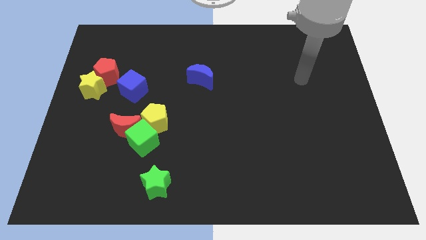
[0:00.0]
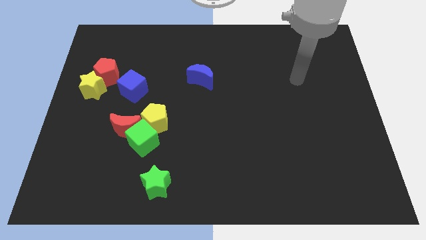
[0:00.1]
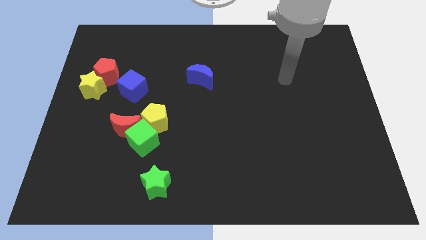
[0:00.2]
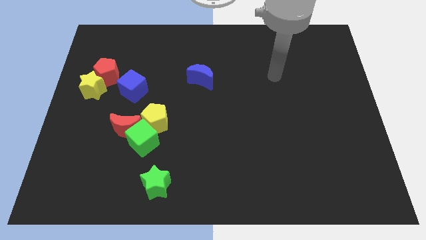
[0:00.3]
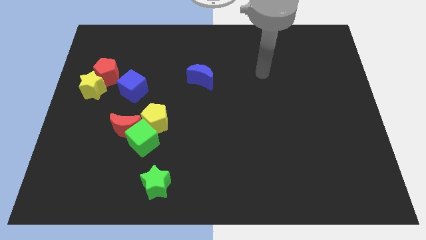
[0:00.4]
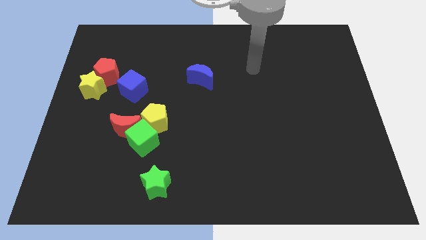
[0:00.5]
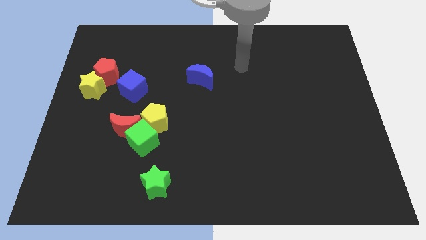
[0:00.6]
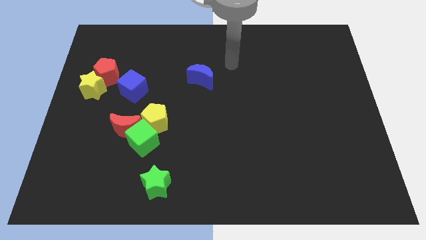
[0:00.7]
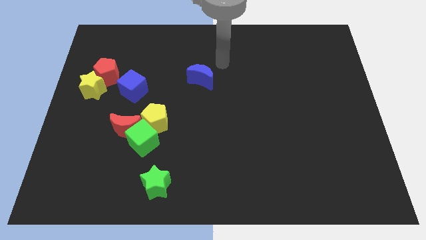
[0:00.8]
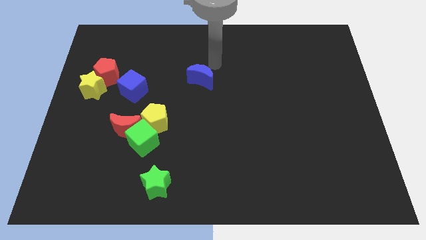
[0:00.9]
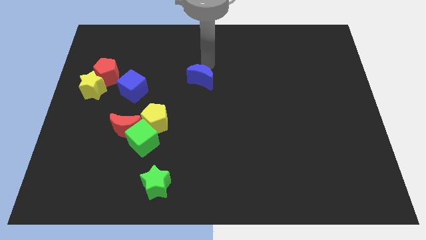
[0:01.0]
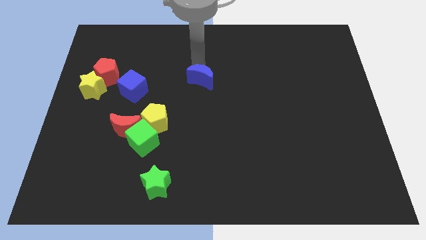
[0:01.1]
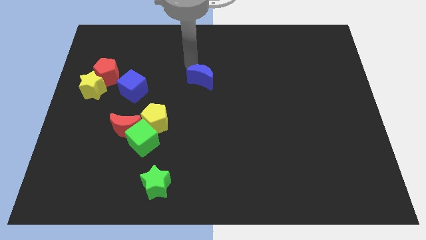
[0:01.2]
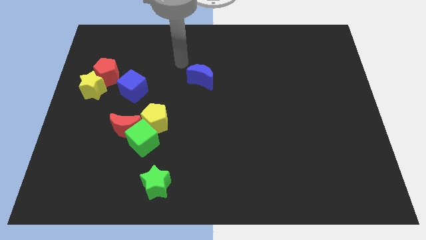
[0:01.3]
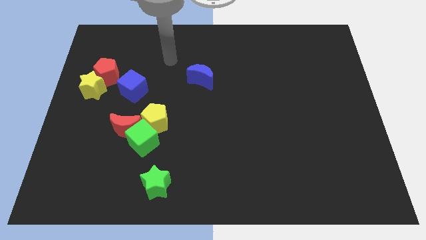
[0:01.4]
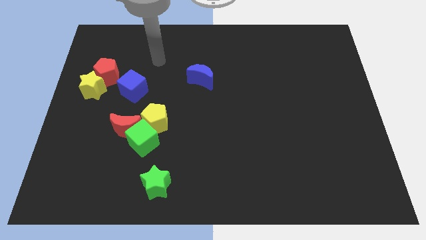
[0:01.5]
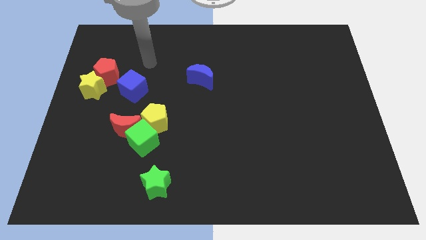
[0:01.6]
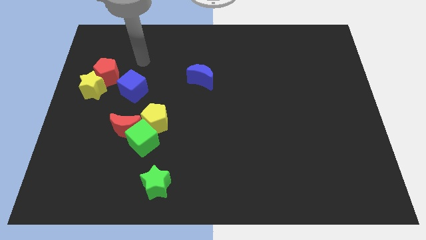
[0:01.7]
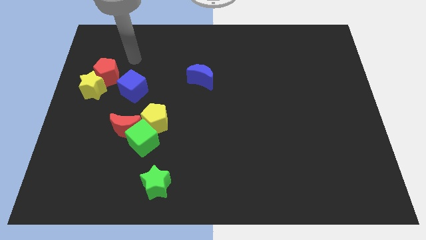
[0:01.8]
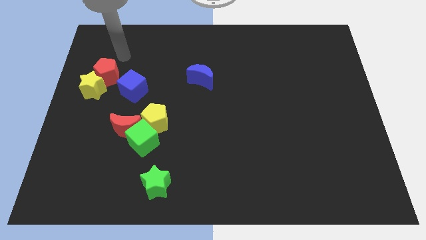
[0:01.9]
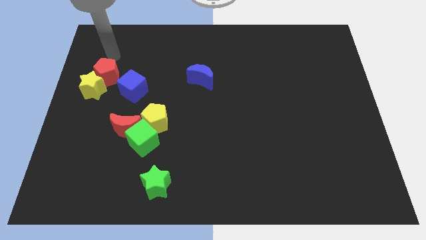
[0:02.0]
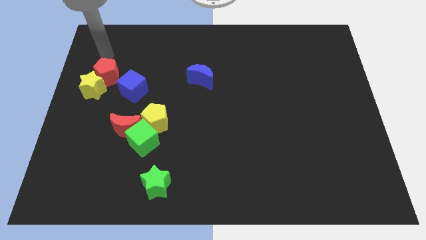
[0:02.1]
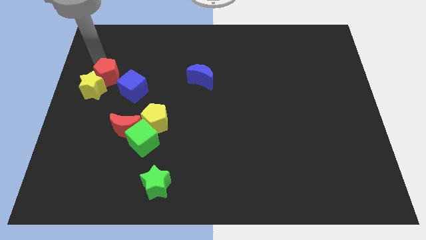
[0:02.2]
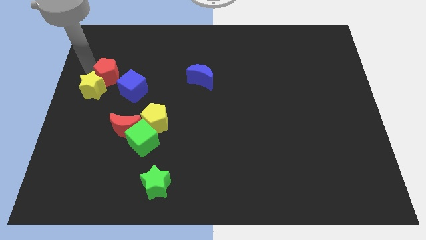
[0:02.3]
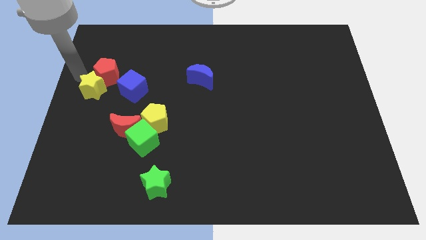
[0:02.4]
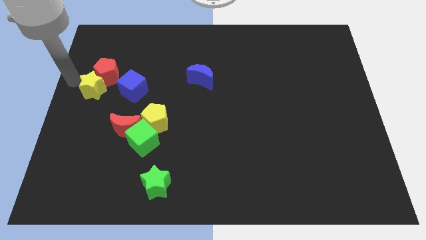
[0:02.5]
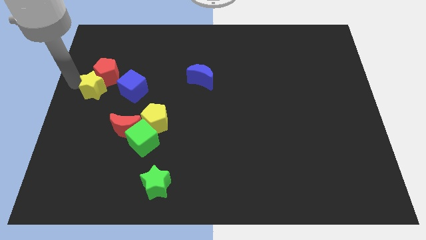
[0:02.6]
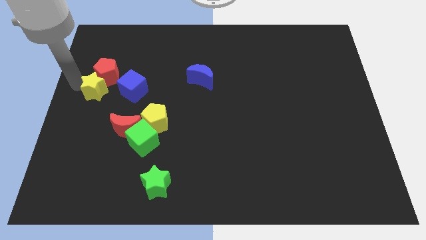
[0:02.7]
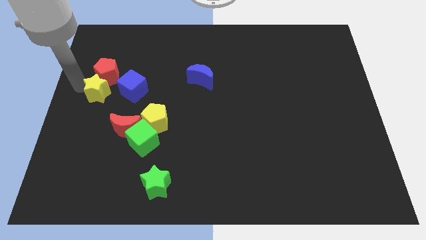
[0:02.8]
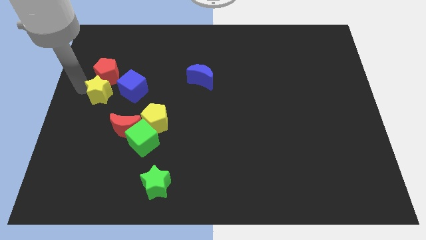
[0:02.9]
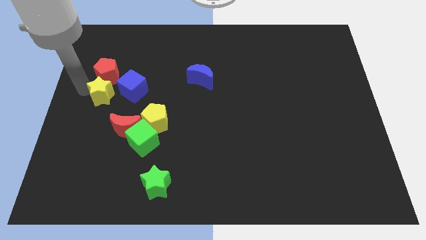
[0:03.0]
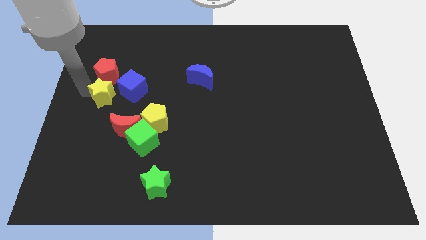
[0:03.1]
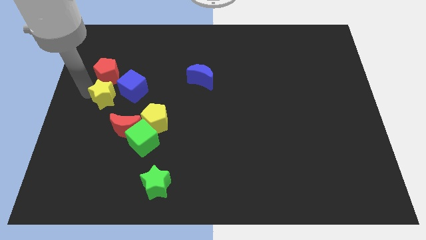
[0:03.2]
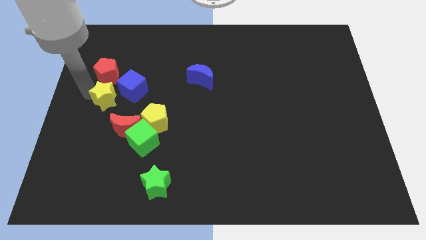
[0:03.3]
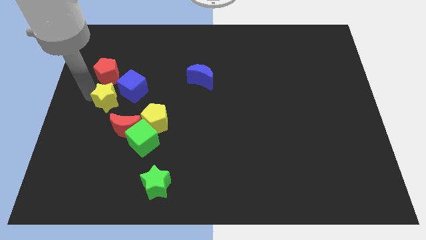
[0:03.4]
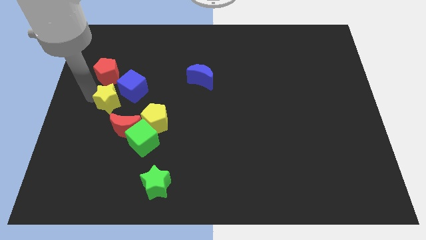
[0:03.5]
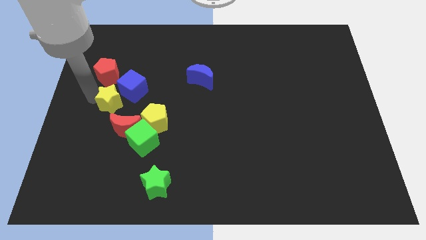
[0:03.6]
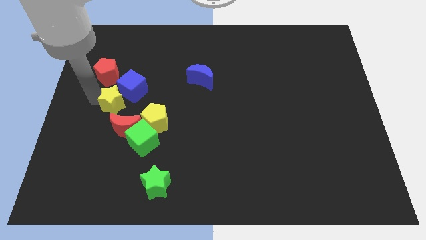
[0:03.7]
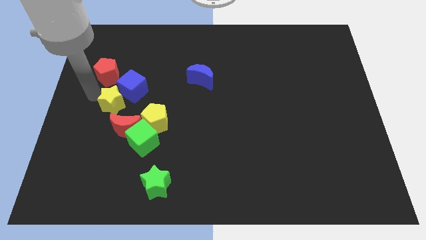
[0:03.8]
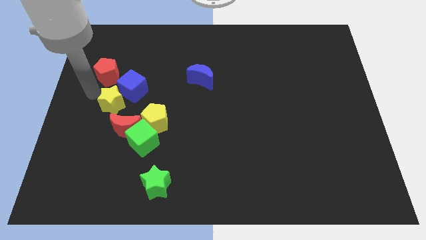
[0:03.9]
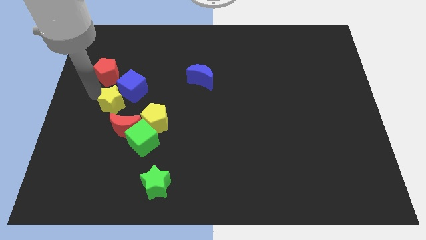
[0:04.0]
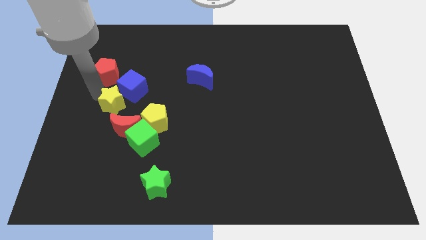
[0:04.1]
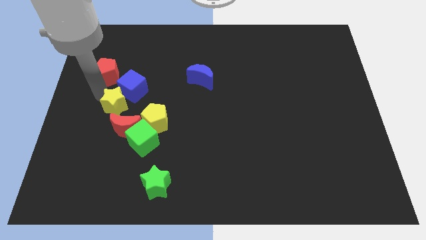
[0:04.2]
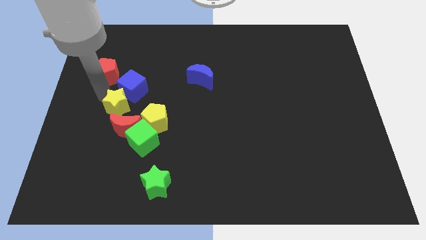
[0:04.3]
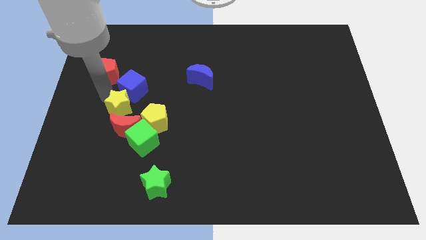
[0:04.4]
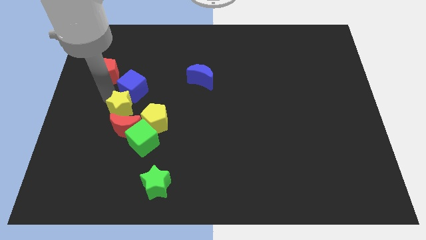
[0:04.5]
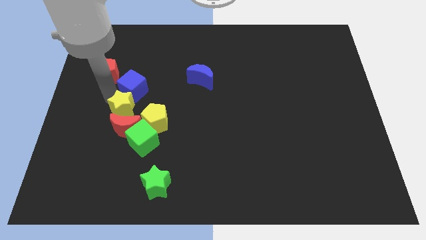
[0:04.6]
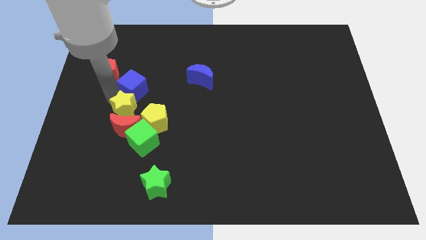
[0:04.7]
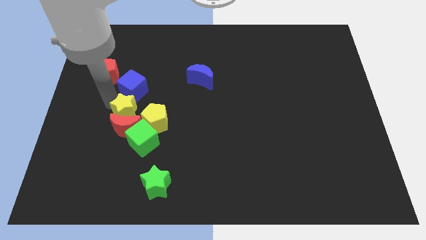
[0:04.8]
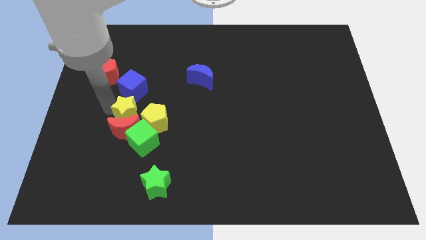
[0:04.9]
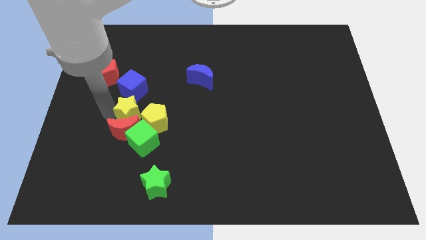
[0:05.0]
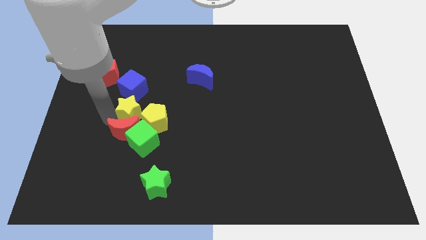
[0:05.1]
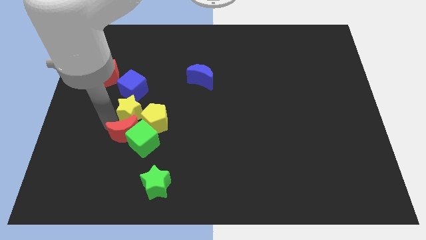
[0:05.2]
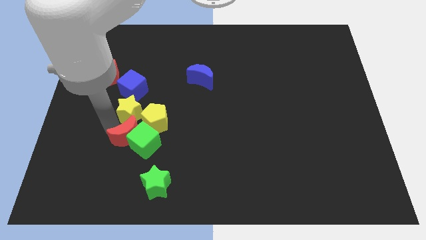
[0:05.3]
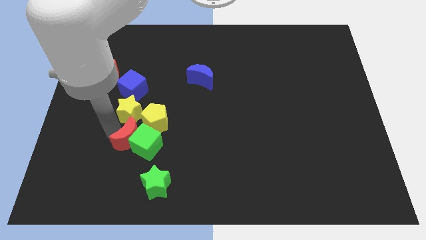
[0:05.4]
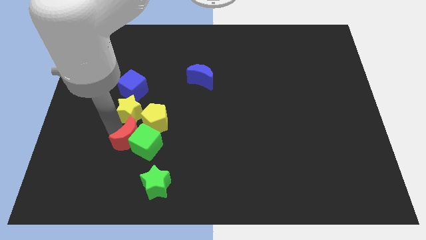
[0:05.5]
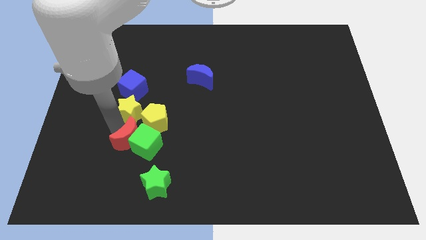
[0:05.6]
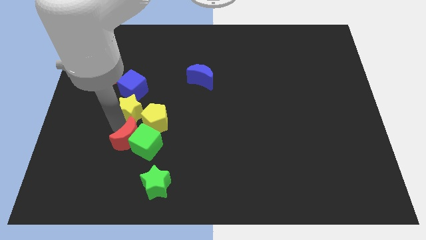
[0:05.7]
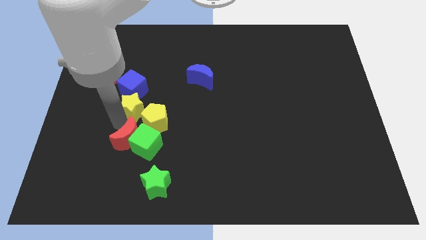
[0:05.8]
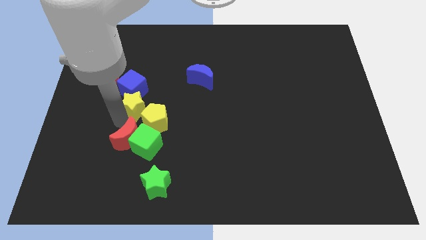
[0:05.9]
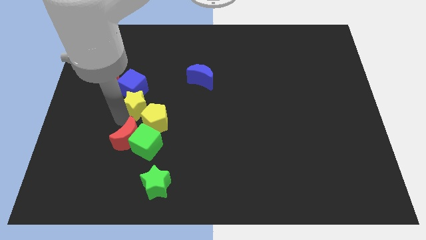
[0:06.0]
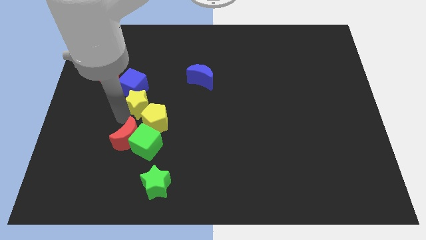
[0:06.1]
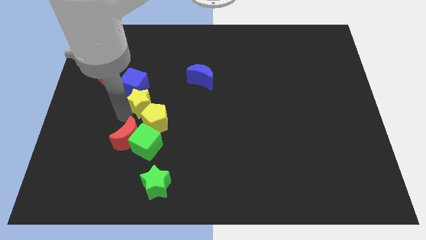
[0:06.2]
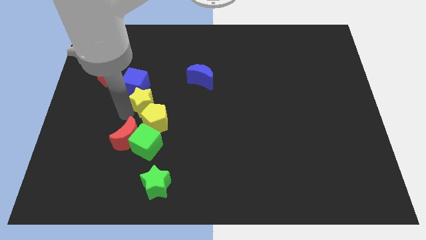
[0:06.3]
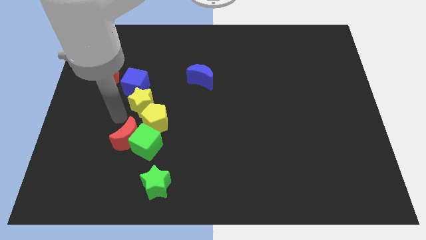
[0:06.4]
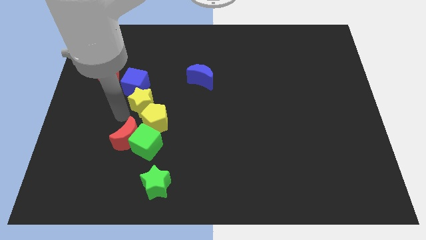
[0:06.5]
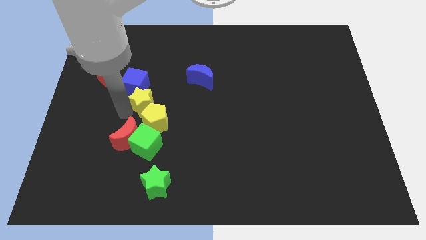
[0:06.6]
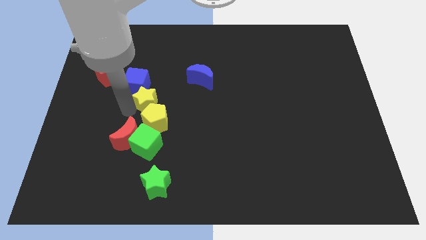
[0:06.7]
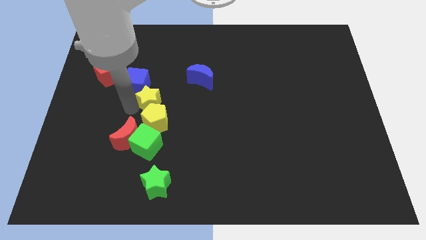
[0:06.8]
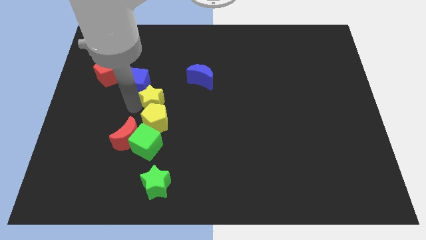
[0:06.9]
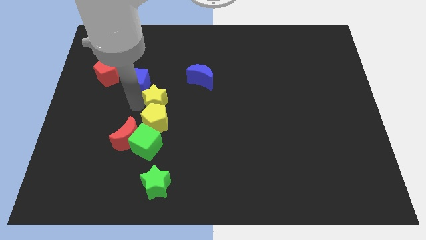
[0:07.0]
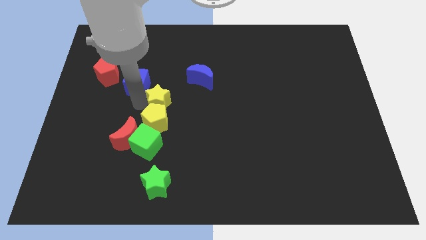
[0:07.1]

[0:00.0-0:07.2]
move the yellow star to the center

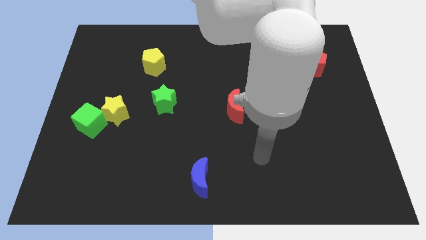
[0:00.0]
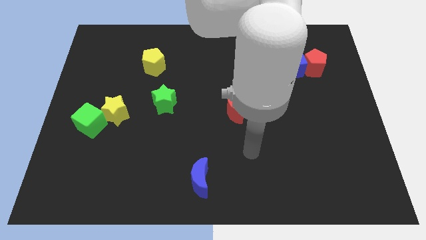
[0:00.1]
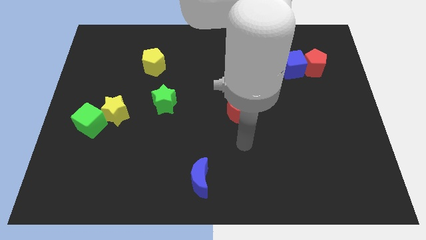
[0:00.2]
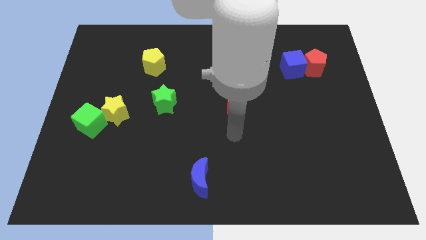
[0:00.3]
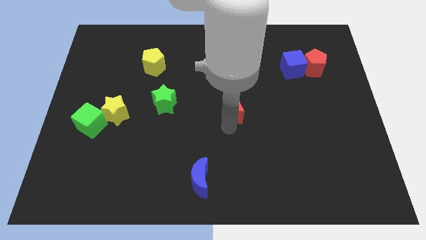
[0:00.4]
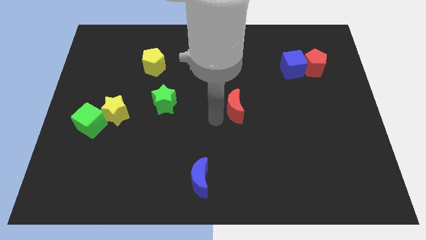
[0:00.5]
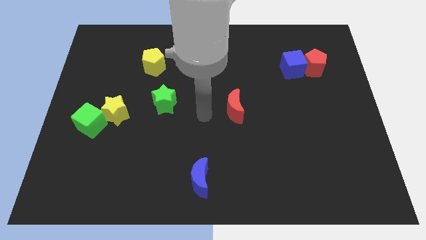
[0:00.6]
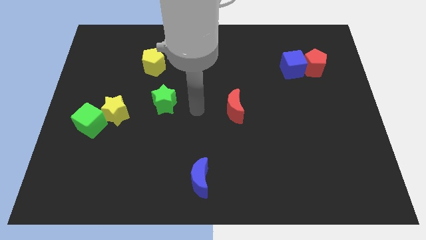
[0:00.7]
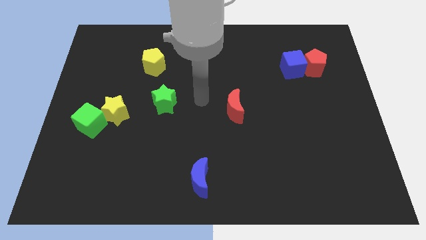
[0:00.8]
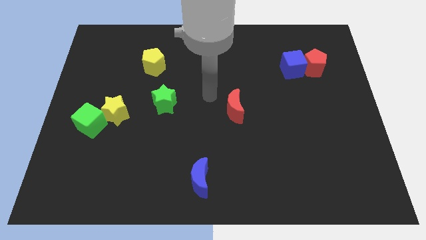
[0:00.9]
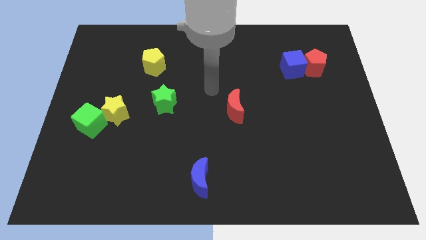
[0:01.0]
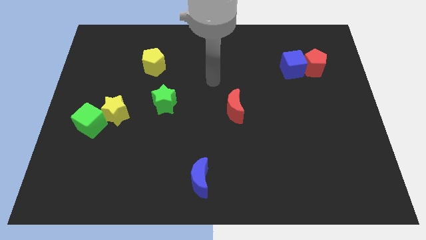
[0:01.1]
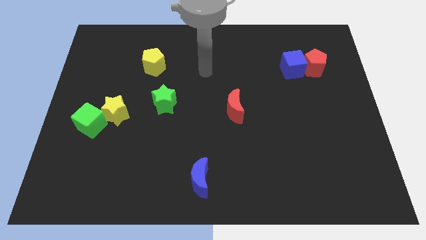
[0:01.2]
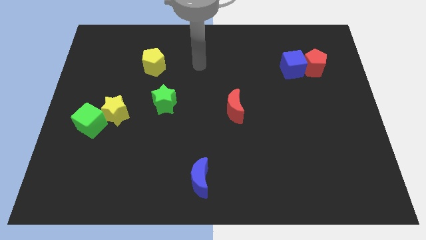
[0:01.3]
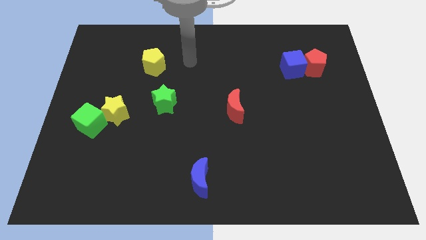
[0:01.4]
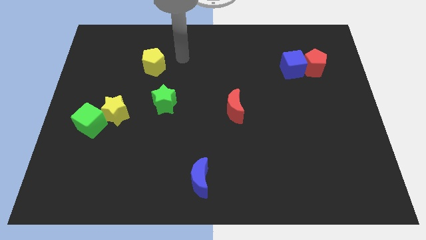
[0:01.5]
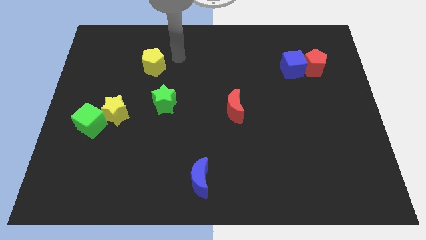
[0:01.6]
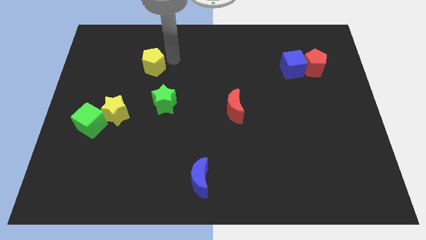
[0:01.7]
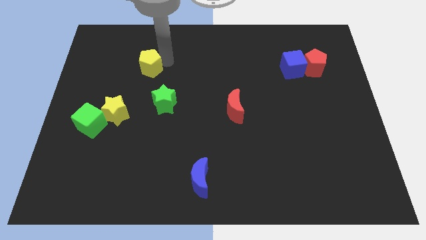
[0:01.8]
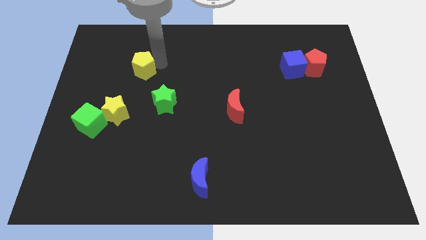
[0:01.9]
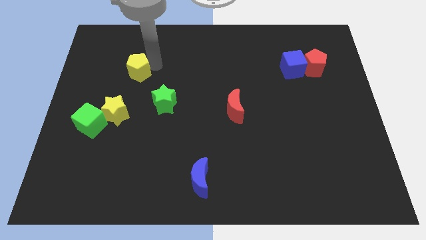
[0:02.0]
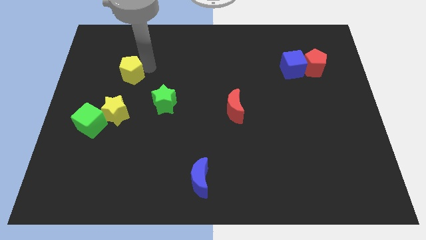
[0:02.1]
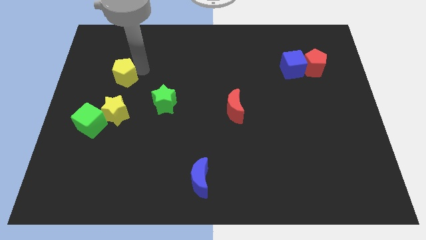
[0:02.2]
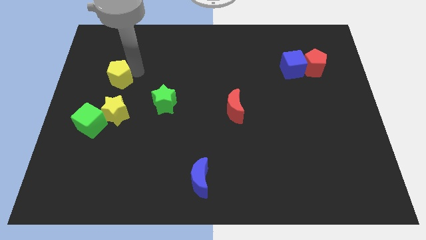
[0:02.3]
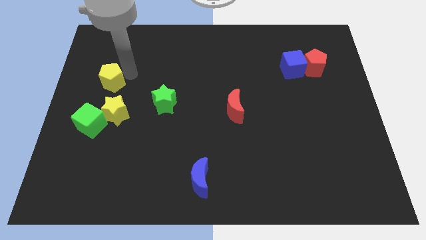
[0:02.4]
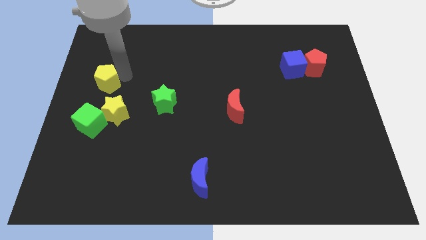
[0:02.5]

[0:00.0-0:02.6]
put the yellow pentagon to the left side of the board
